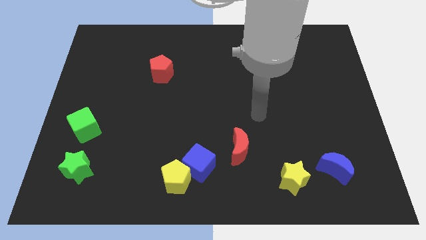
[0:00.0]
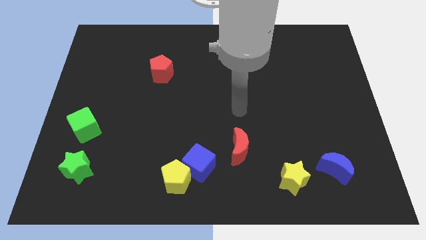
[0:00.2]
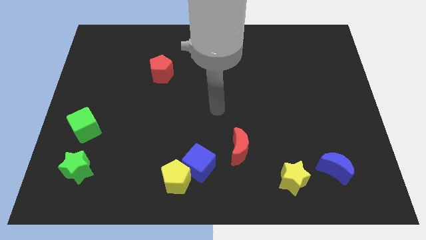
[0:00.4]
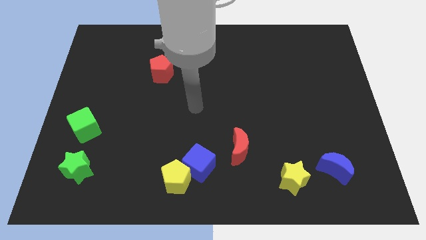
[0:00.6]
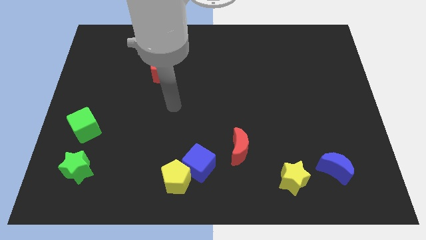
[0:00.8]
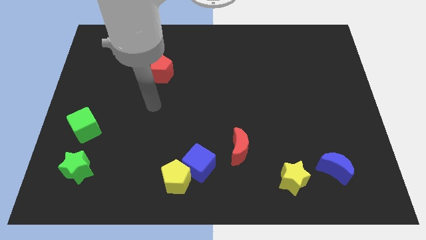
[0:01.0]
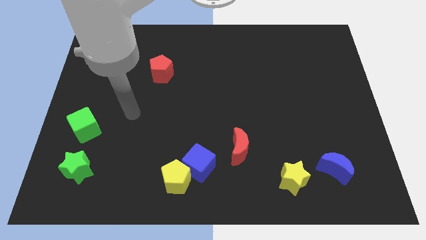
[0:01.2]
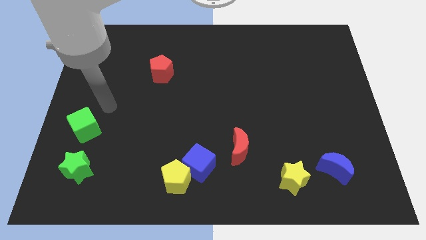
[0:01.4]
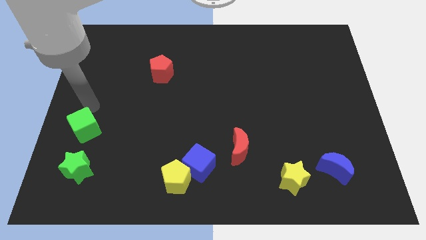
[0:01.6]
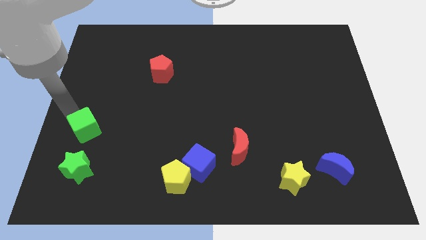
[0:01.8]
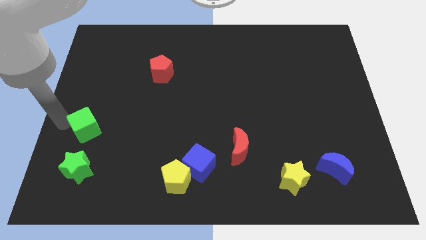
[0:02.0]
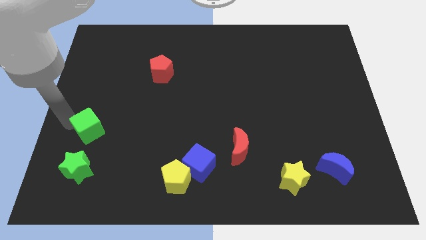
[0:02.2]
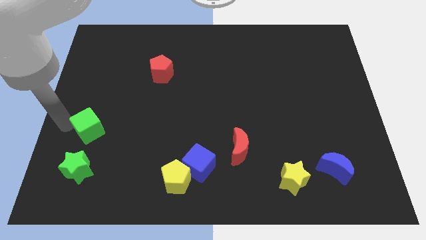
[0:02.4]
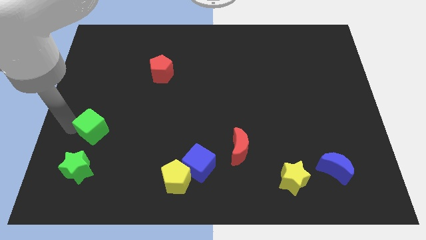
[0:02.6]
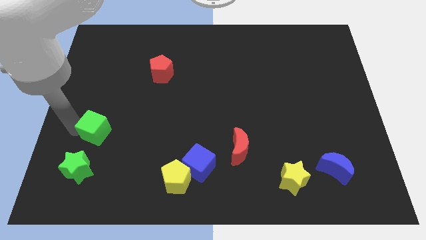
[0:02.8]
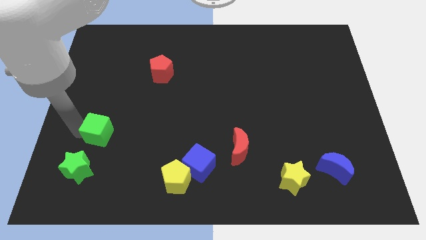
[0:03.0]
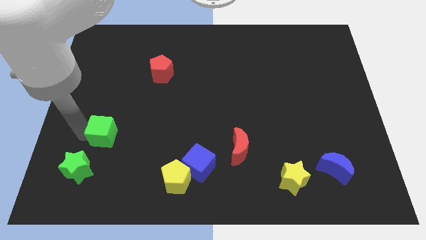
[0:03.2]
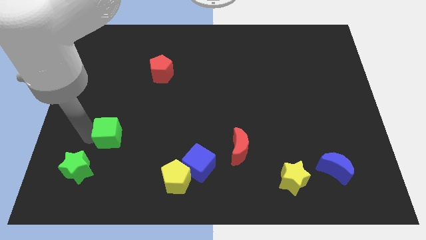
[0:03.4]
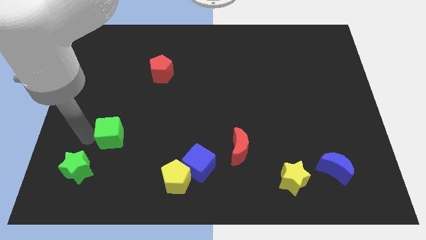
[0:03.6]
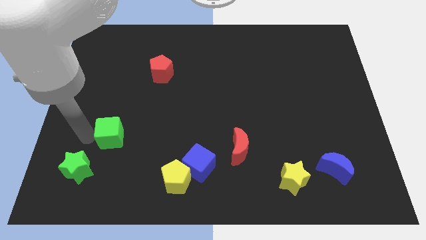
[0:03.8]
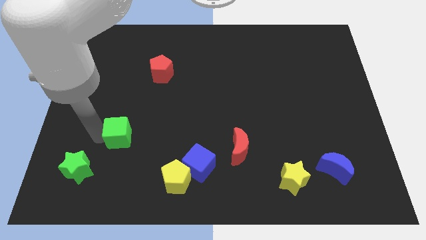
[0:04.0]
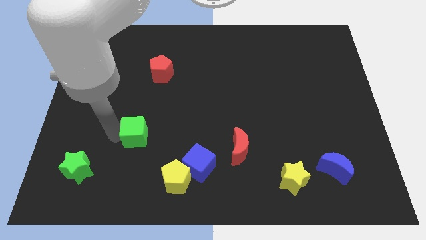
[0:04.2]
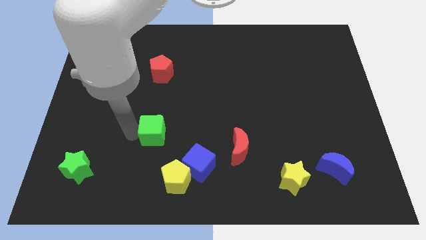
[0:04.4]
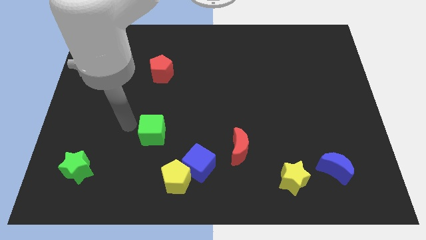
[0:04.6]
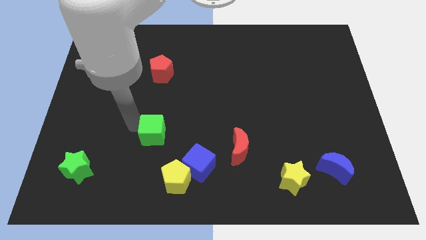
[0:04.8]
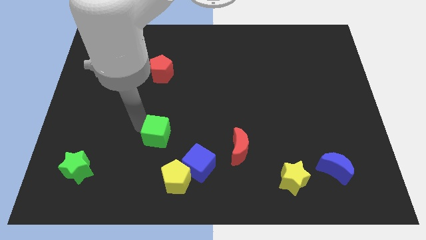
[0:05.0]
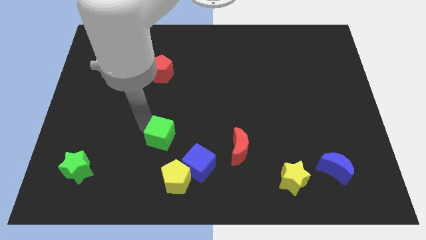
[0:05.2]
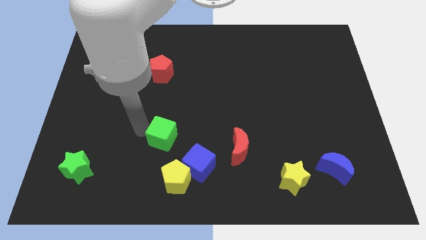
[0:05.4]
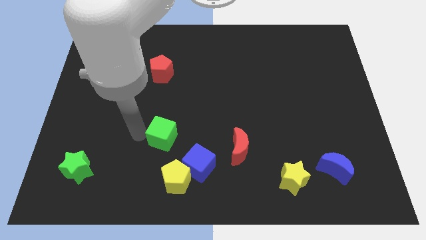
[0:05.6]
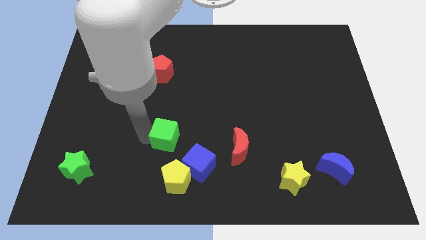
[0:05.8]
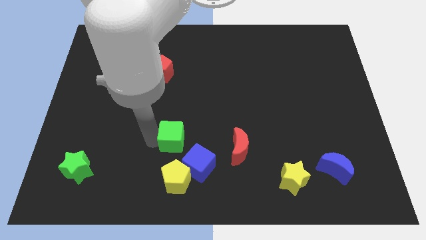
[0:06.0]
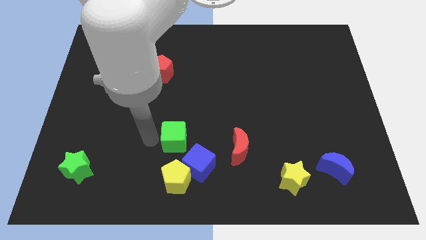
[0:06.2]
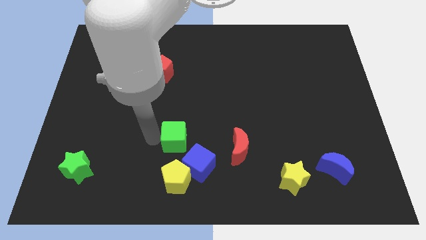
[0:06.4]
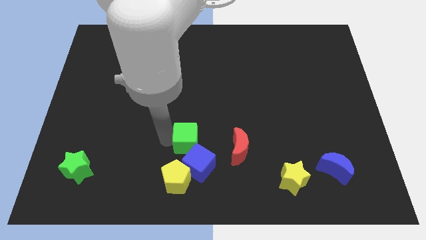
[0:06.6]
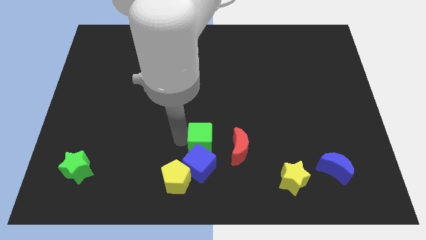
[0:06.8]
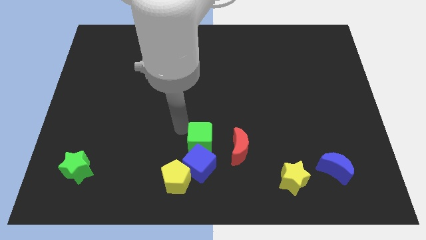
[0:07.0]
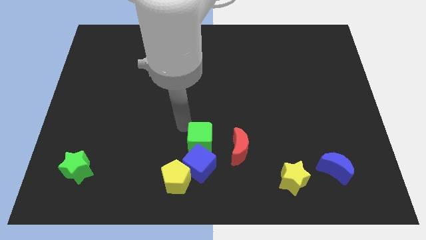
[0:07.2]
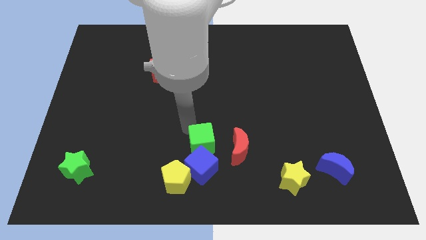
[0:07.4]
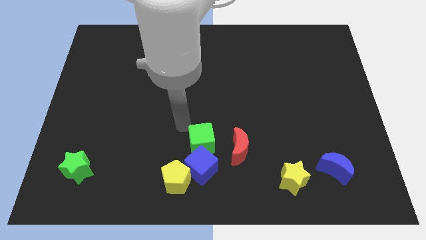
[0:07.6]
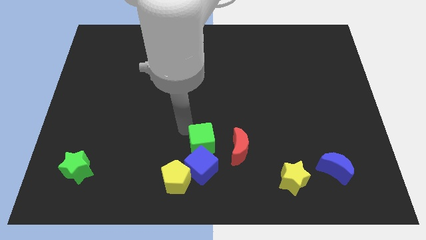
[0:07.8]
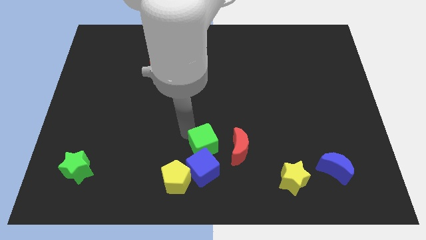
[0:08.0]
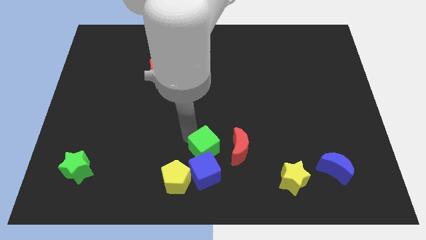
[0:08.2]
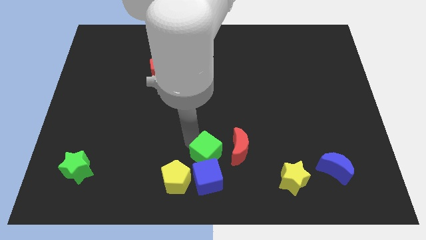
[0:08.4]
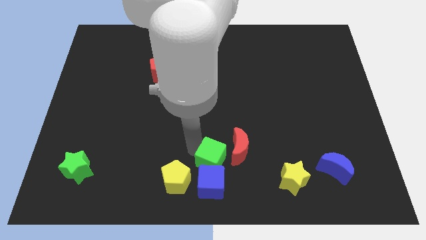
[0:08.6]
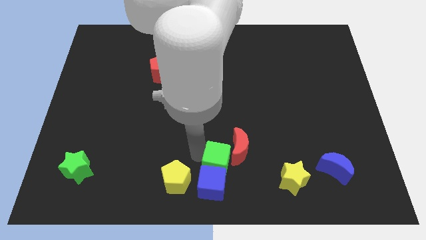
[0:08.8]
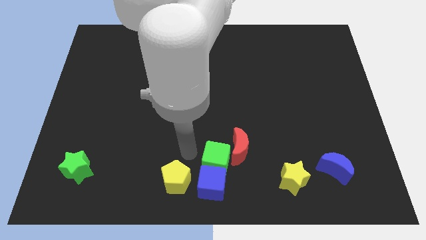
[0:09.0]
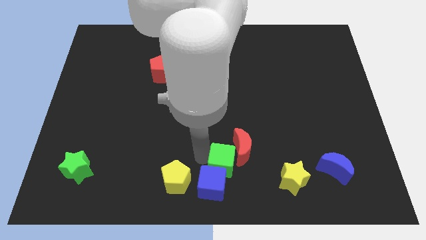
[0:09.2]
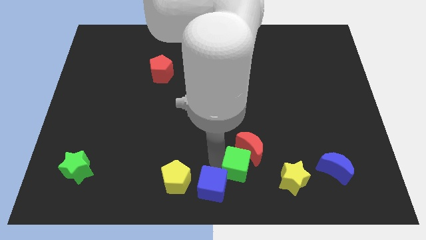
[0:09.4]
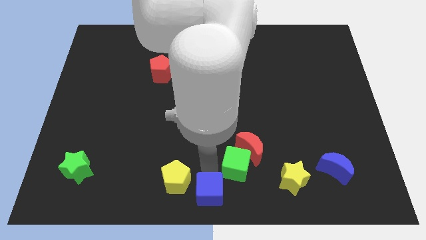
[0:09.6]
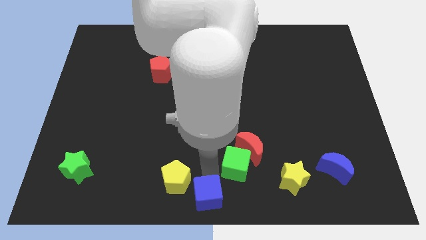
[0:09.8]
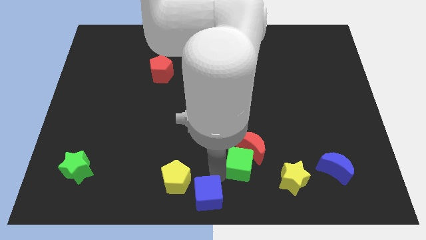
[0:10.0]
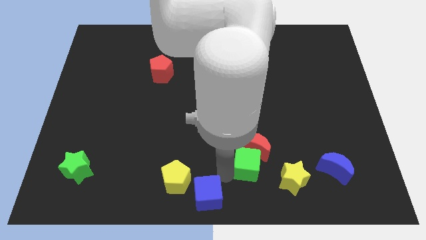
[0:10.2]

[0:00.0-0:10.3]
slide the green cube diagonally up and to the left of the yellow star
